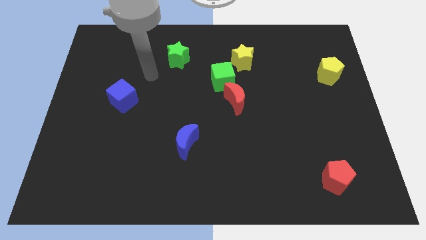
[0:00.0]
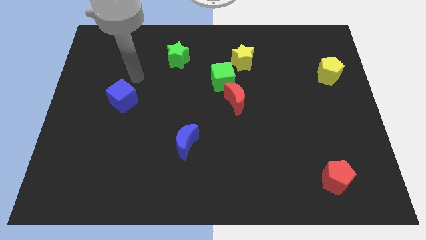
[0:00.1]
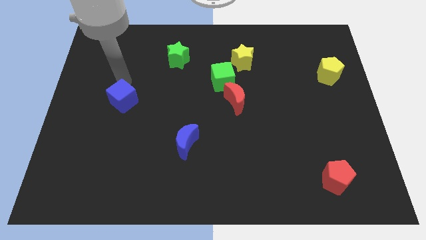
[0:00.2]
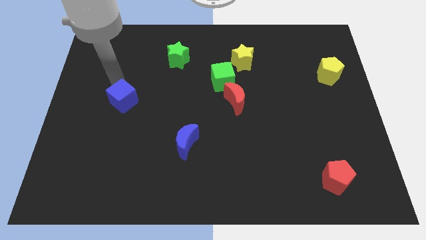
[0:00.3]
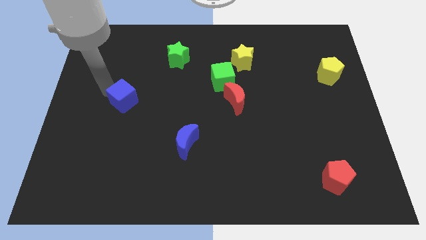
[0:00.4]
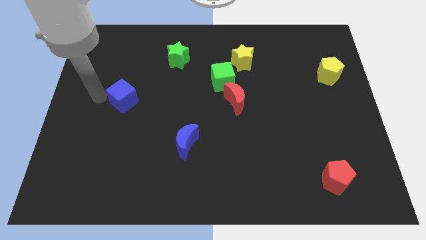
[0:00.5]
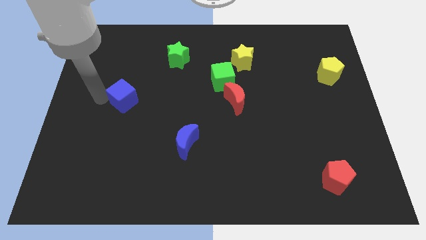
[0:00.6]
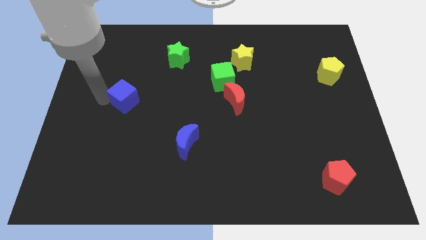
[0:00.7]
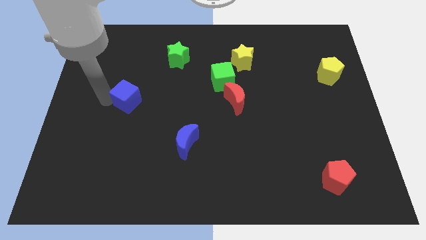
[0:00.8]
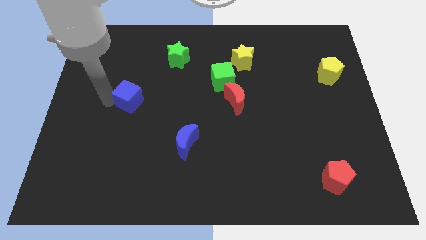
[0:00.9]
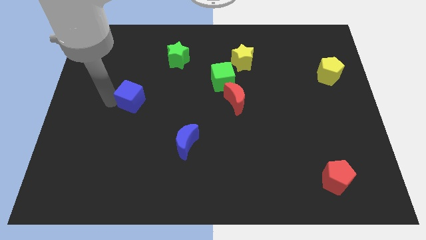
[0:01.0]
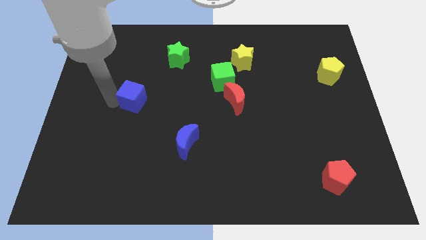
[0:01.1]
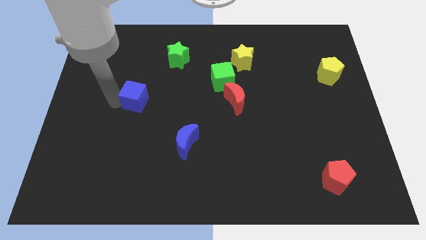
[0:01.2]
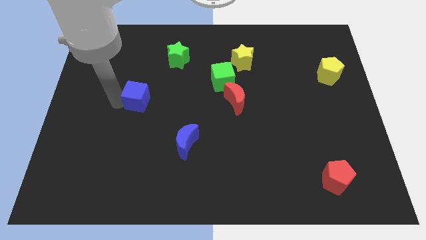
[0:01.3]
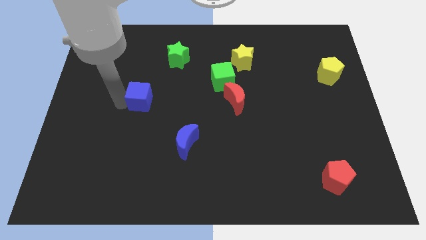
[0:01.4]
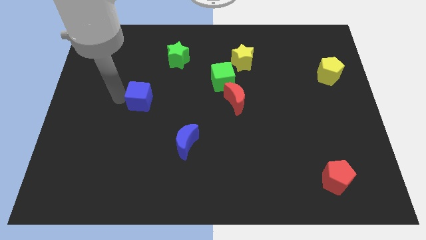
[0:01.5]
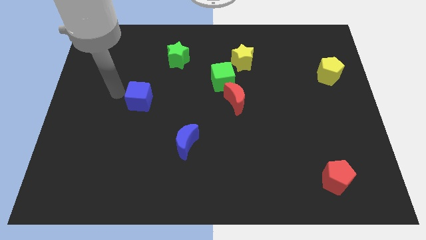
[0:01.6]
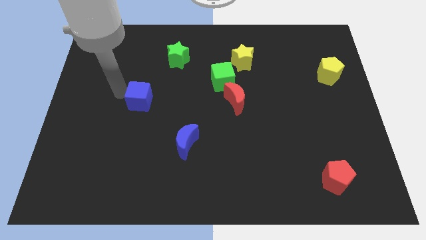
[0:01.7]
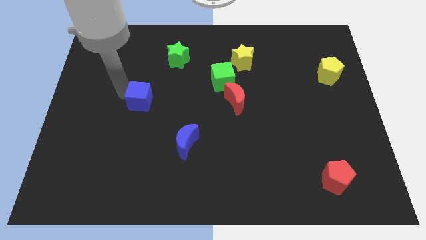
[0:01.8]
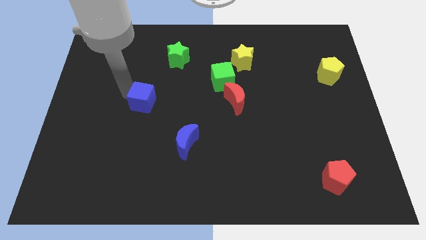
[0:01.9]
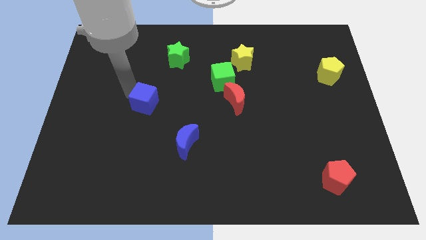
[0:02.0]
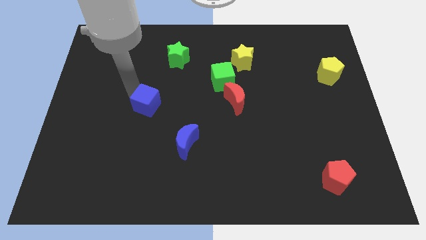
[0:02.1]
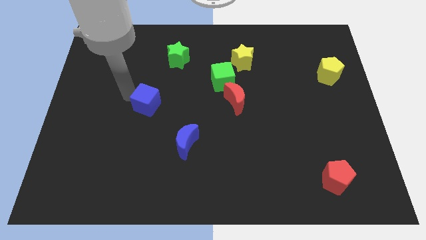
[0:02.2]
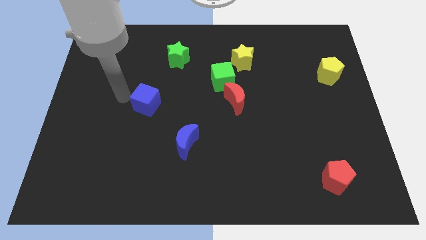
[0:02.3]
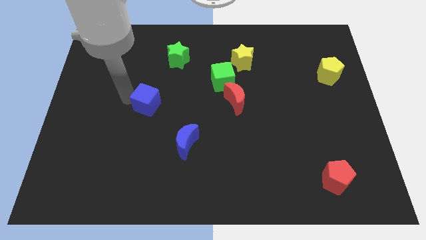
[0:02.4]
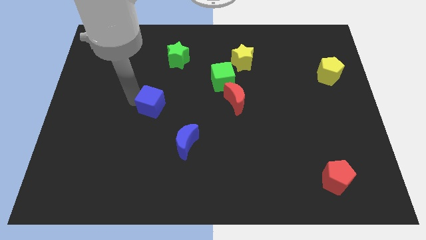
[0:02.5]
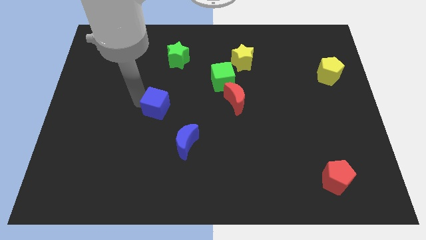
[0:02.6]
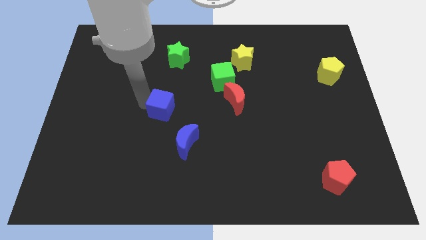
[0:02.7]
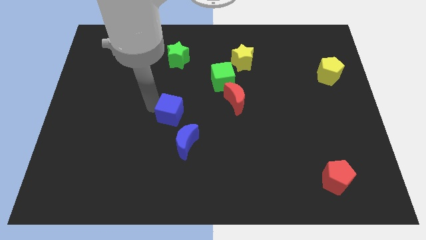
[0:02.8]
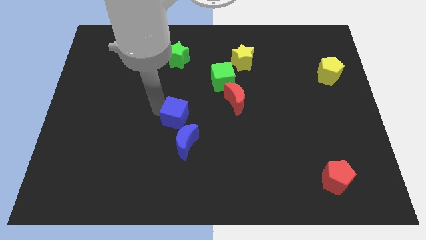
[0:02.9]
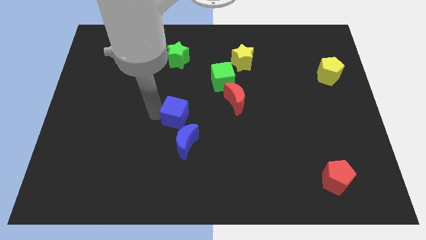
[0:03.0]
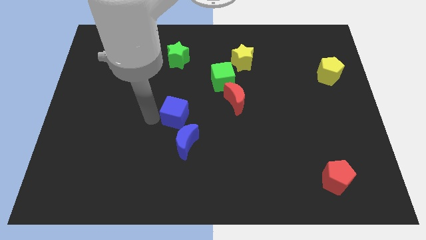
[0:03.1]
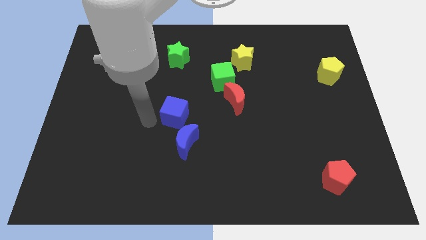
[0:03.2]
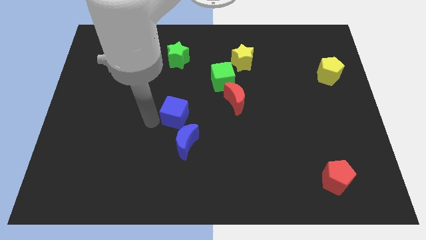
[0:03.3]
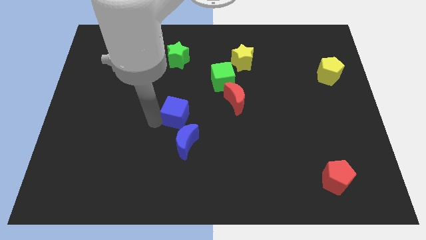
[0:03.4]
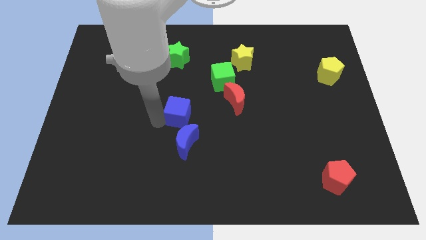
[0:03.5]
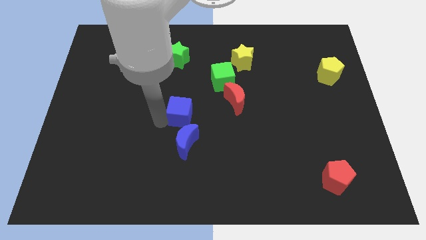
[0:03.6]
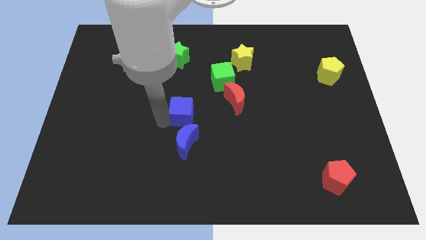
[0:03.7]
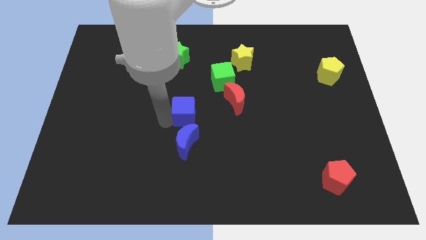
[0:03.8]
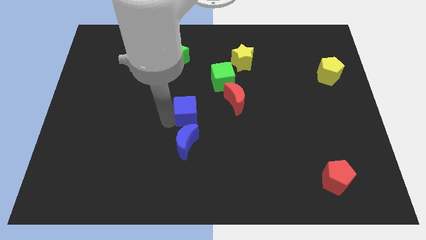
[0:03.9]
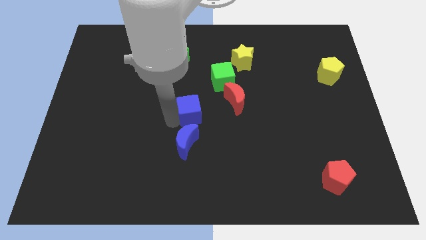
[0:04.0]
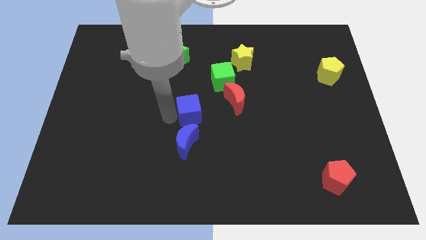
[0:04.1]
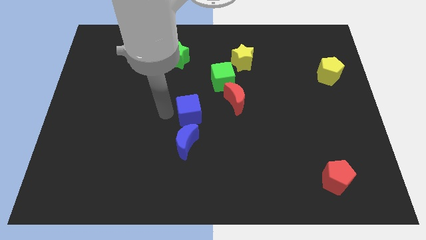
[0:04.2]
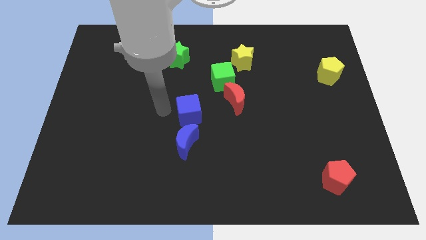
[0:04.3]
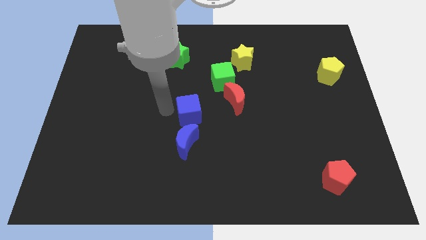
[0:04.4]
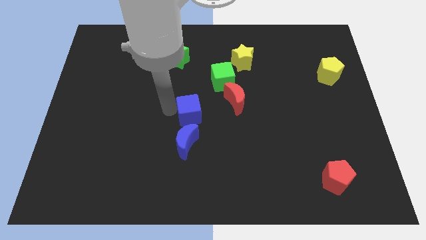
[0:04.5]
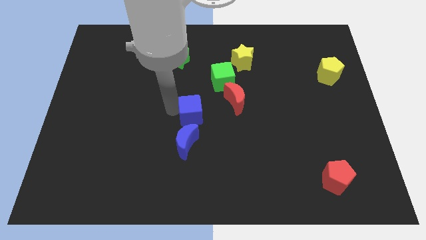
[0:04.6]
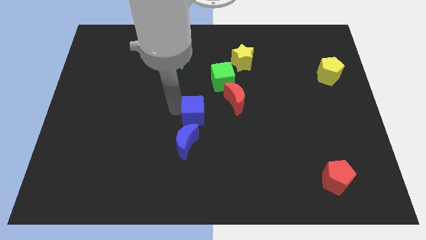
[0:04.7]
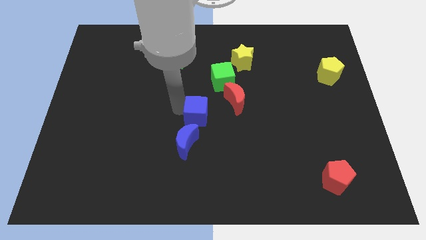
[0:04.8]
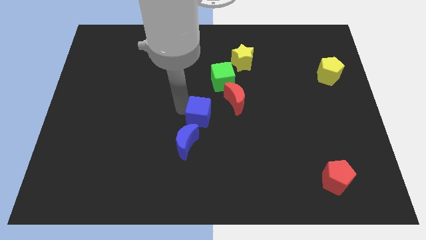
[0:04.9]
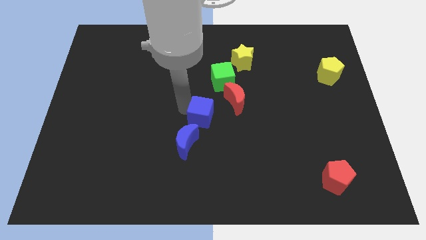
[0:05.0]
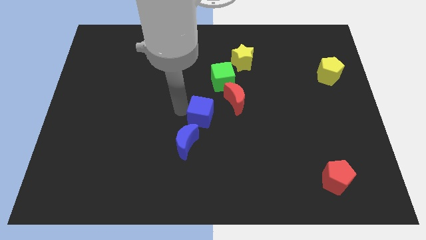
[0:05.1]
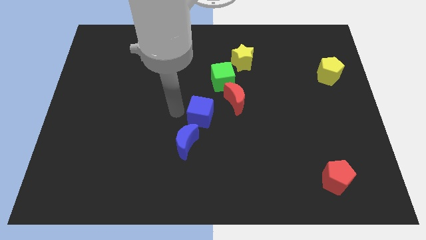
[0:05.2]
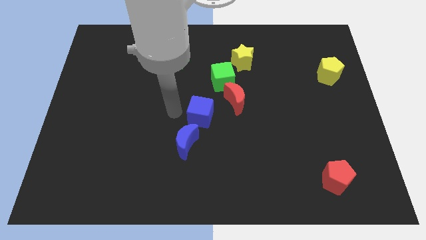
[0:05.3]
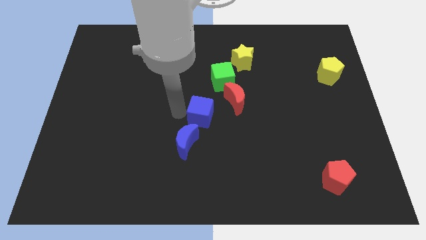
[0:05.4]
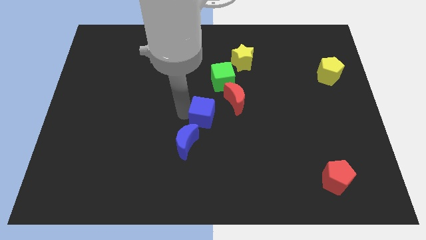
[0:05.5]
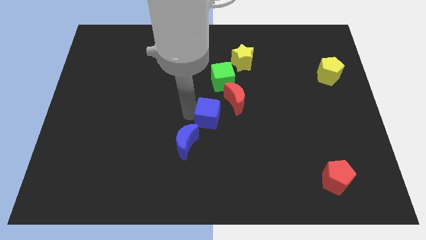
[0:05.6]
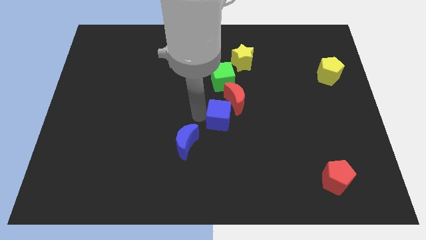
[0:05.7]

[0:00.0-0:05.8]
slide the blue cube right

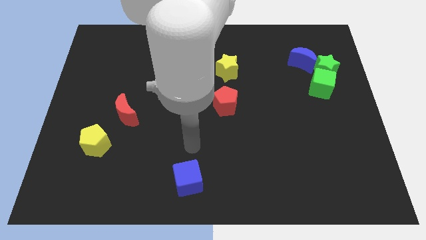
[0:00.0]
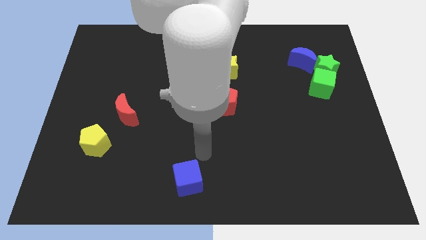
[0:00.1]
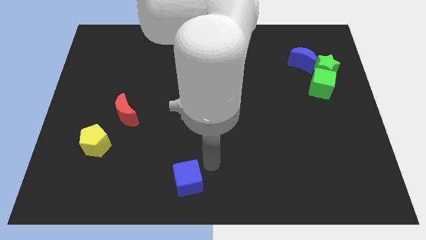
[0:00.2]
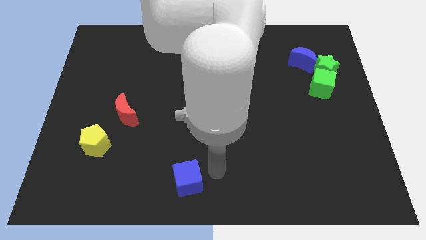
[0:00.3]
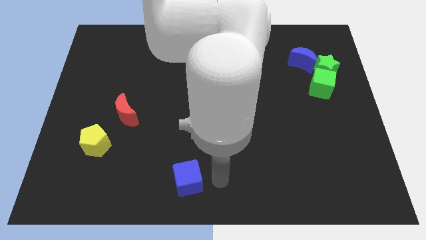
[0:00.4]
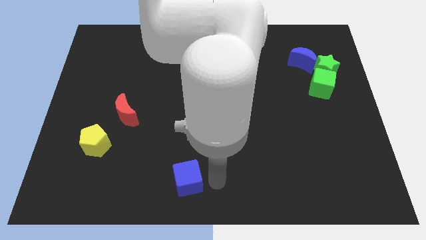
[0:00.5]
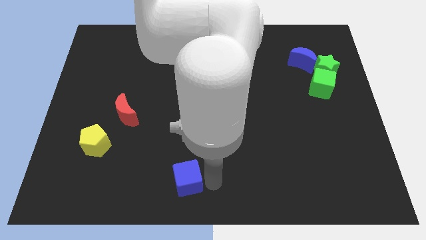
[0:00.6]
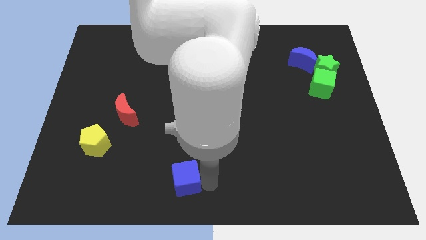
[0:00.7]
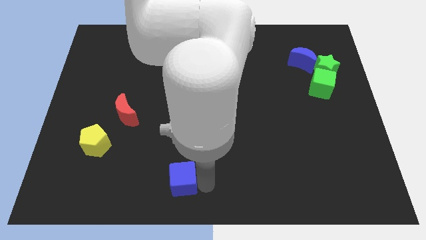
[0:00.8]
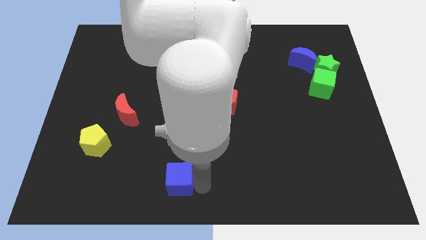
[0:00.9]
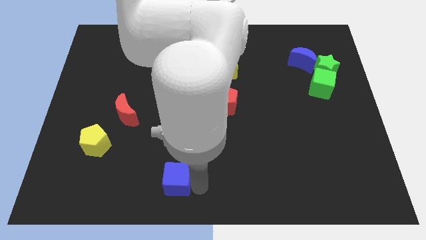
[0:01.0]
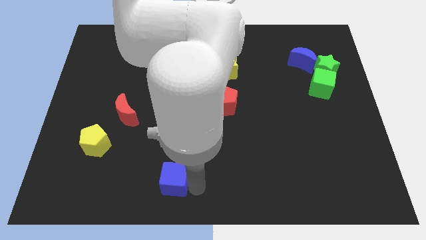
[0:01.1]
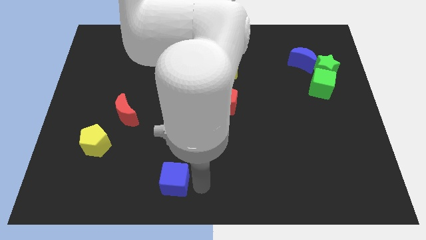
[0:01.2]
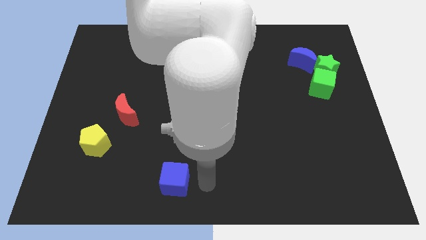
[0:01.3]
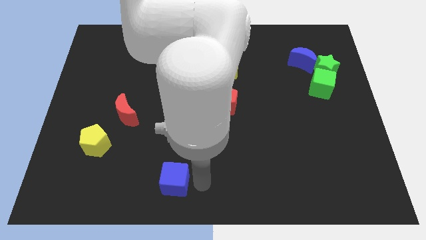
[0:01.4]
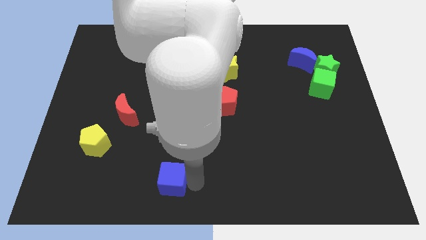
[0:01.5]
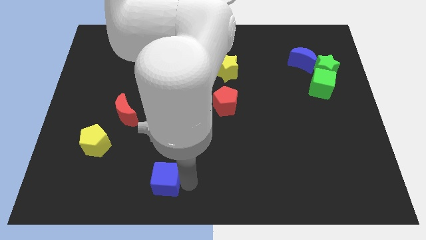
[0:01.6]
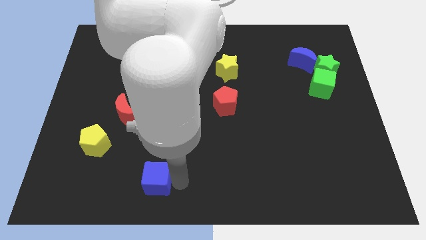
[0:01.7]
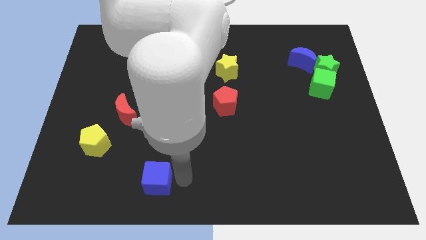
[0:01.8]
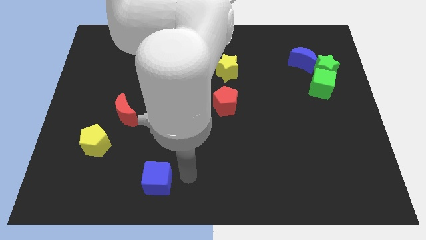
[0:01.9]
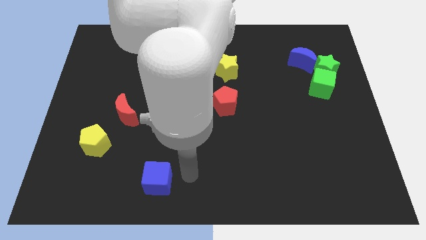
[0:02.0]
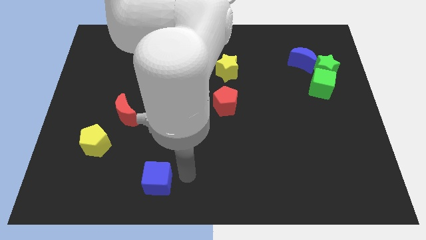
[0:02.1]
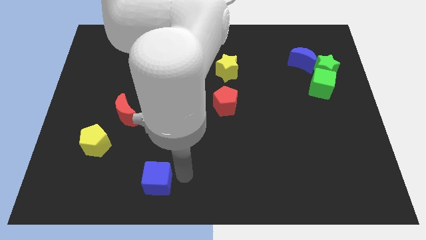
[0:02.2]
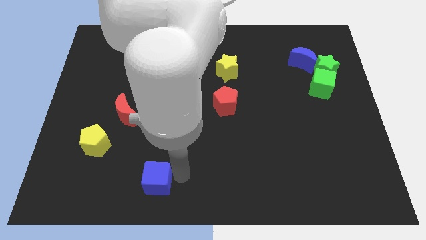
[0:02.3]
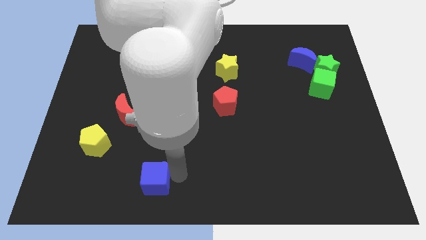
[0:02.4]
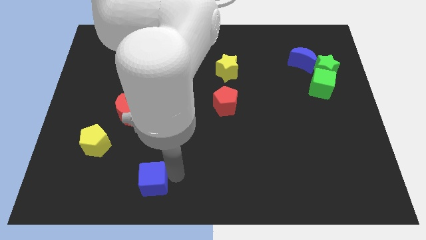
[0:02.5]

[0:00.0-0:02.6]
move the blue cube left slightly
